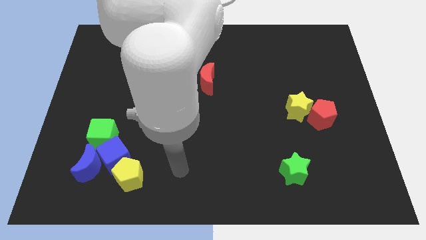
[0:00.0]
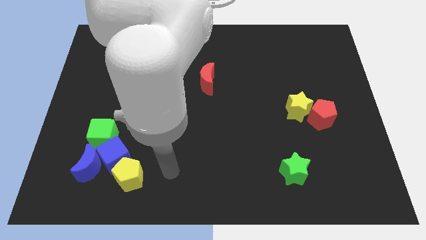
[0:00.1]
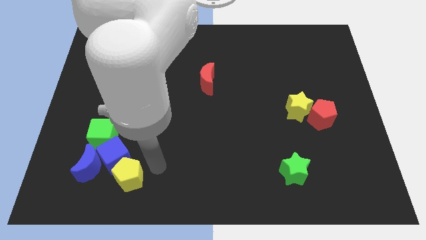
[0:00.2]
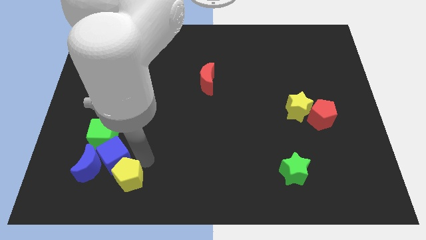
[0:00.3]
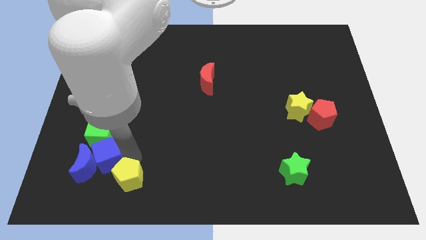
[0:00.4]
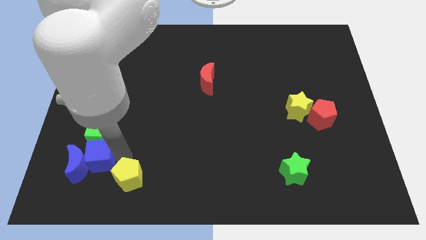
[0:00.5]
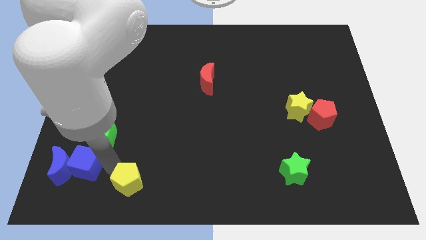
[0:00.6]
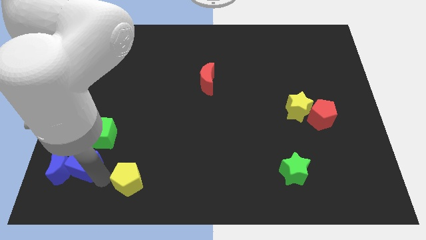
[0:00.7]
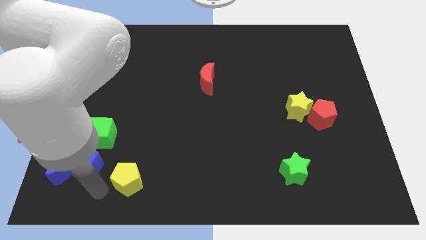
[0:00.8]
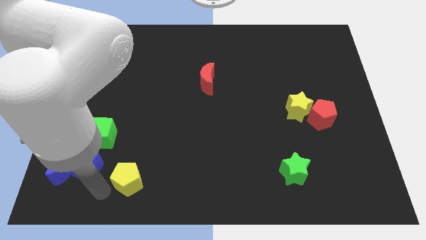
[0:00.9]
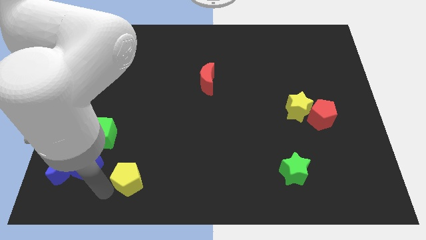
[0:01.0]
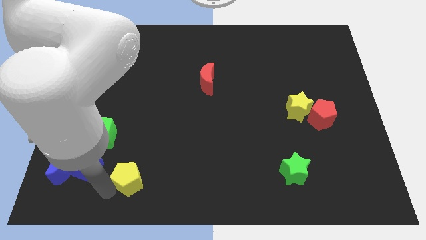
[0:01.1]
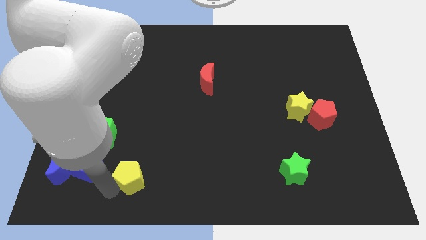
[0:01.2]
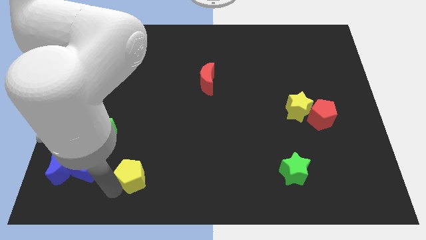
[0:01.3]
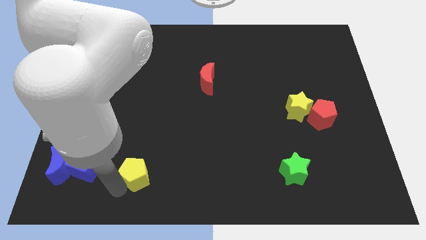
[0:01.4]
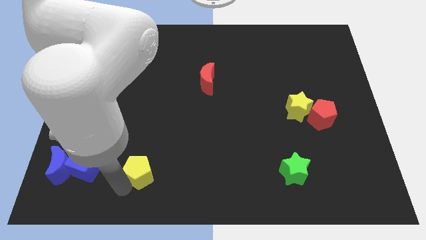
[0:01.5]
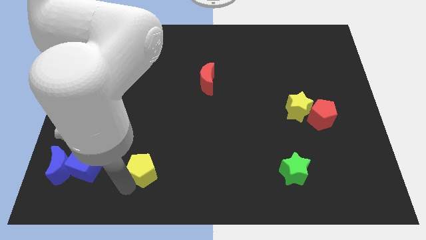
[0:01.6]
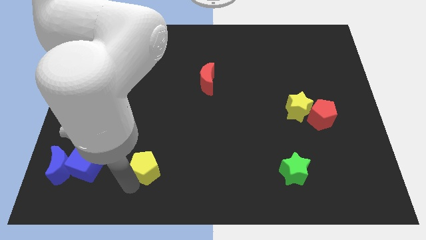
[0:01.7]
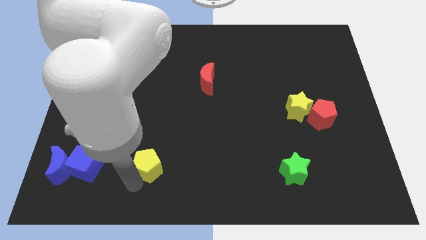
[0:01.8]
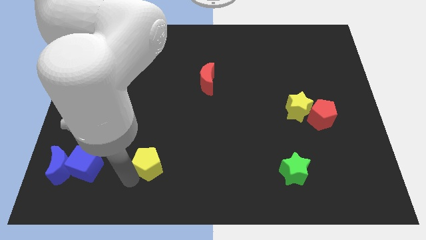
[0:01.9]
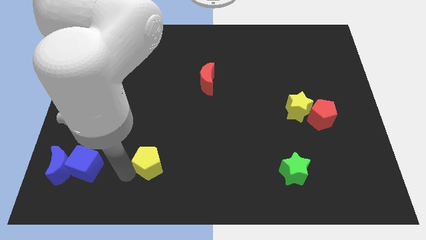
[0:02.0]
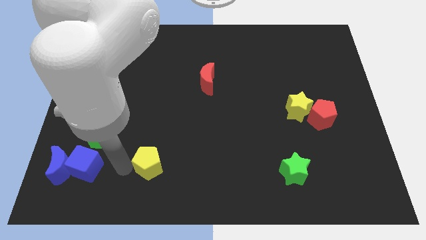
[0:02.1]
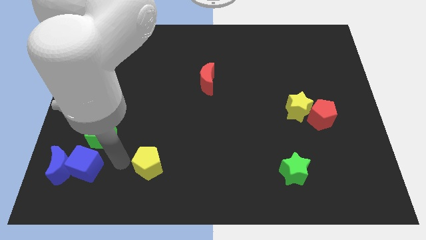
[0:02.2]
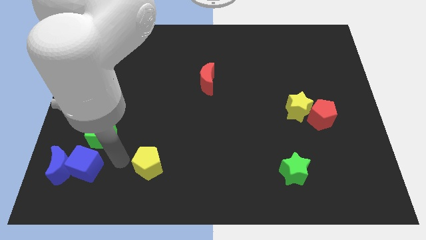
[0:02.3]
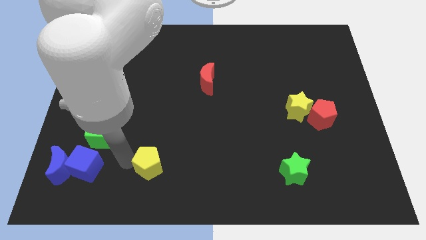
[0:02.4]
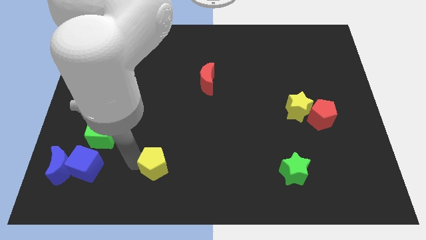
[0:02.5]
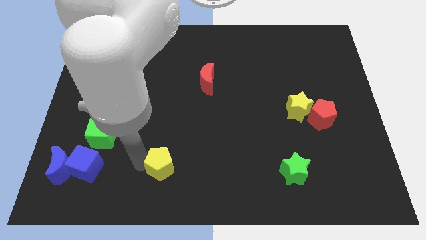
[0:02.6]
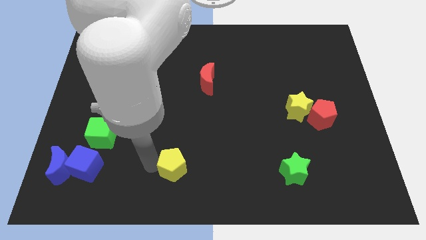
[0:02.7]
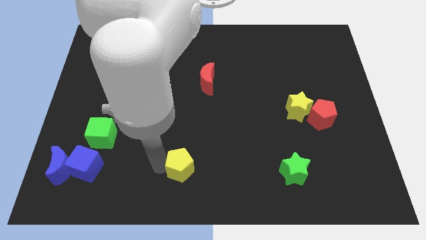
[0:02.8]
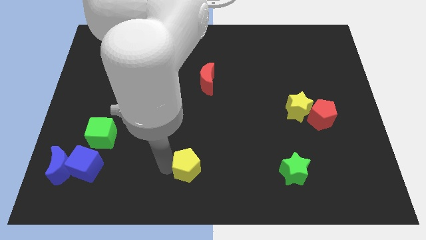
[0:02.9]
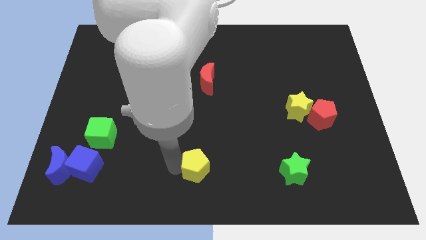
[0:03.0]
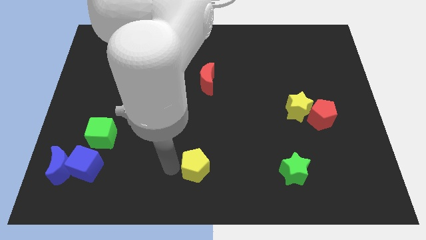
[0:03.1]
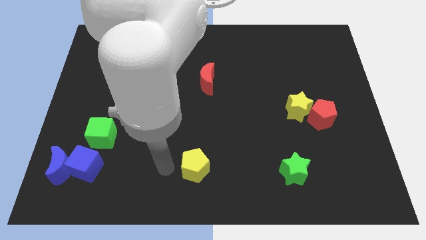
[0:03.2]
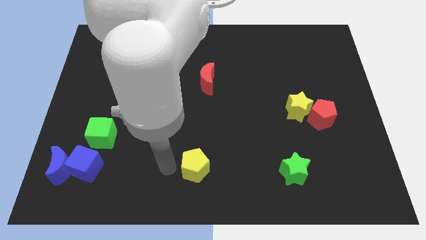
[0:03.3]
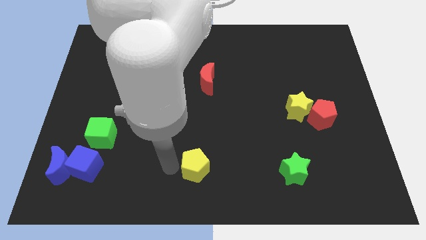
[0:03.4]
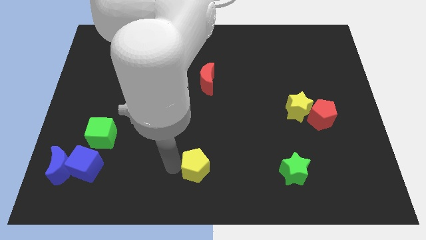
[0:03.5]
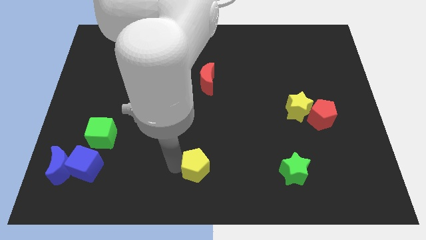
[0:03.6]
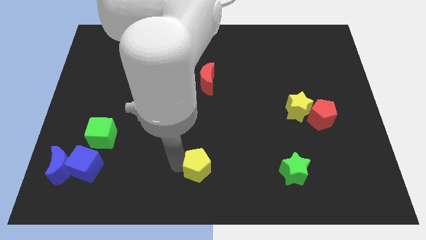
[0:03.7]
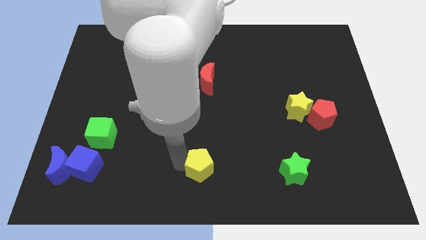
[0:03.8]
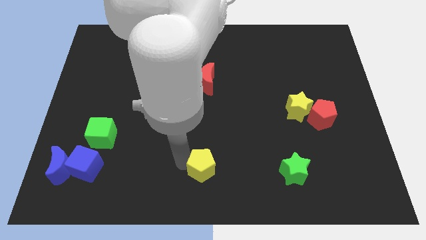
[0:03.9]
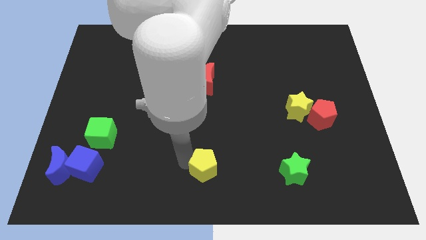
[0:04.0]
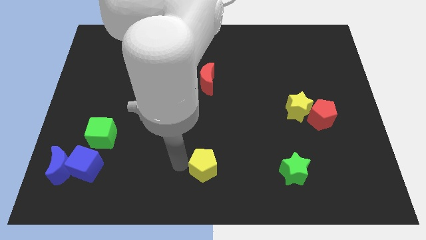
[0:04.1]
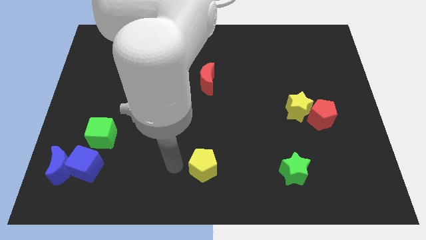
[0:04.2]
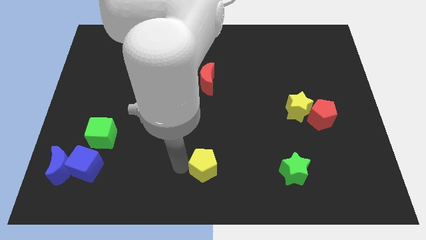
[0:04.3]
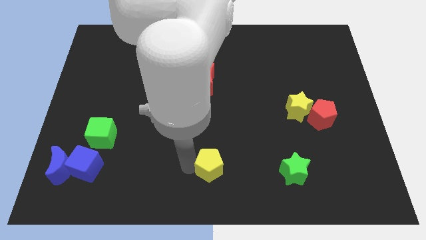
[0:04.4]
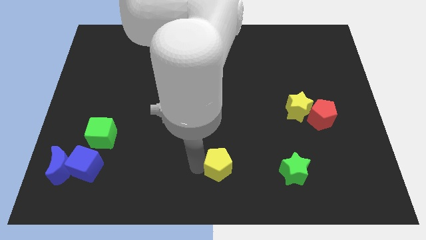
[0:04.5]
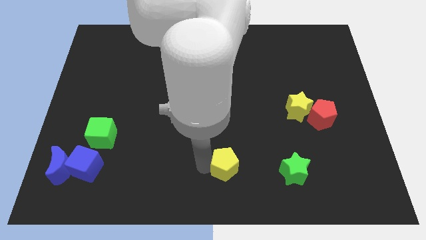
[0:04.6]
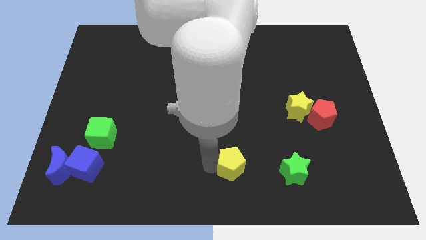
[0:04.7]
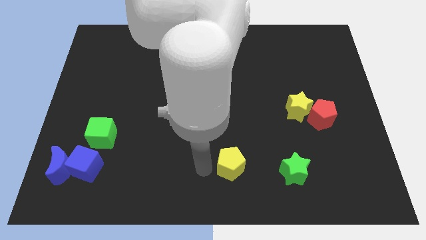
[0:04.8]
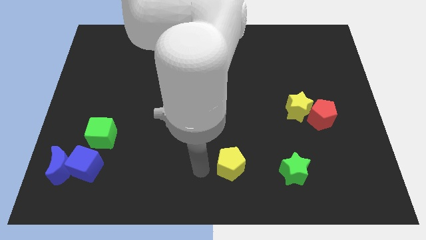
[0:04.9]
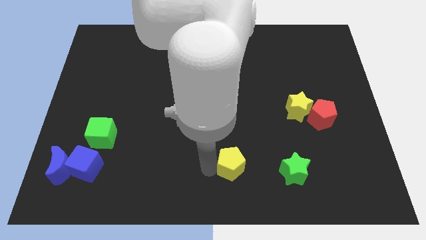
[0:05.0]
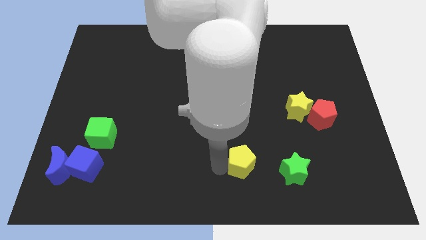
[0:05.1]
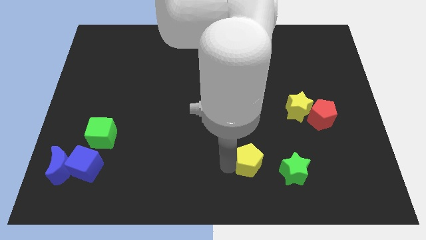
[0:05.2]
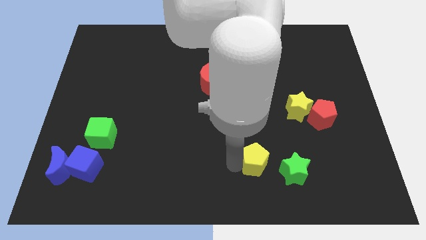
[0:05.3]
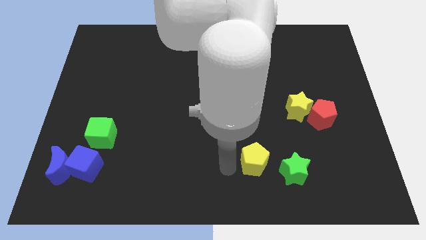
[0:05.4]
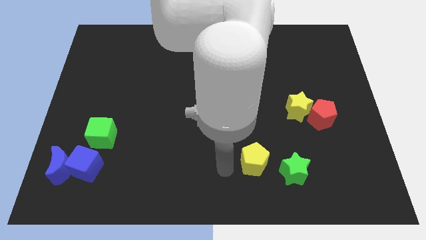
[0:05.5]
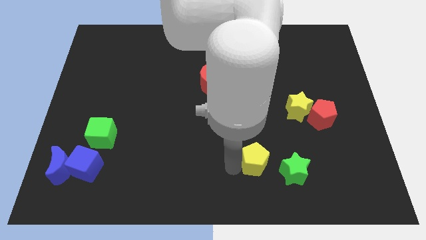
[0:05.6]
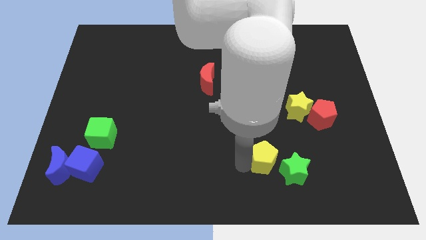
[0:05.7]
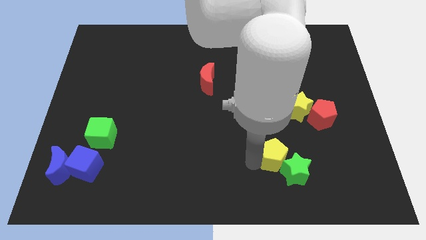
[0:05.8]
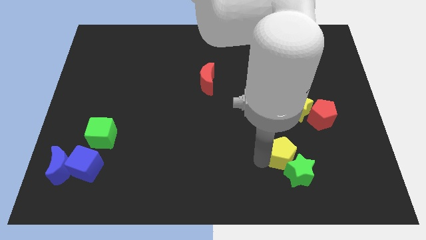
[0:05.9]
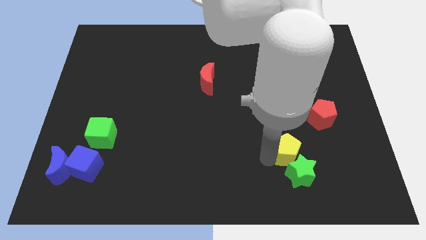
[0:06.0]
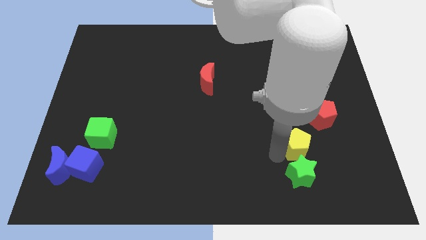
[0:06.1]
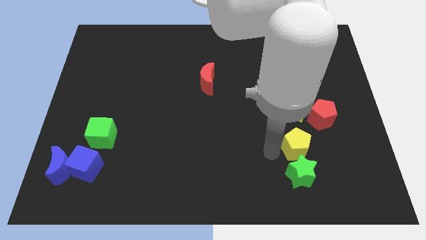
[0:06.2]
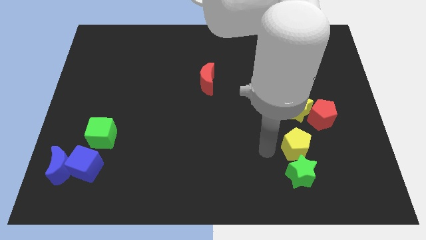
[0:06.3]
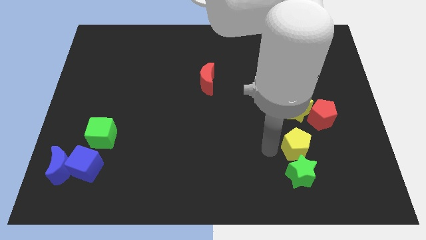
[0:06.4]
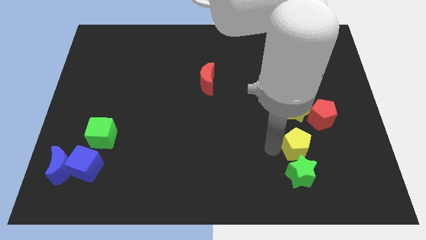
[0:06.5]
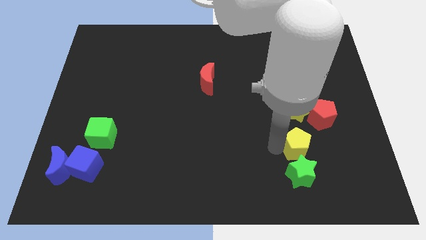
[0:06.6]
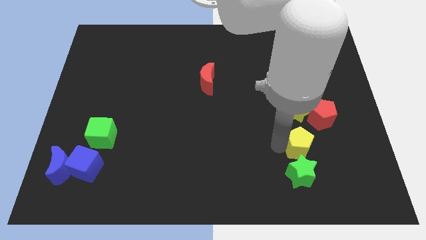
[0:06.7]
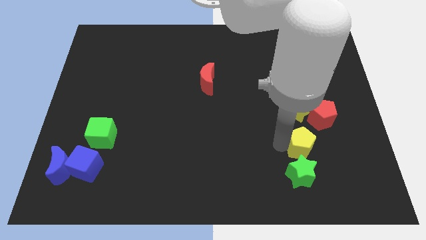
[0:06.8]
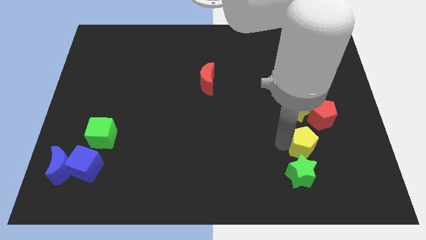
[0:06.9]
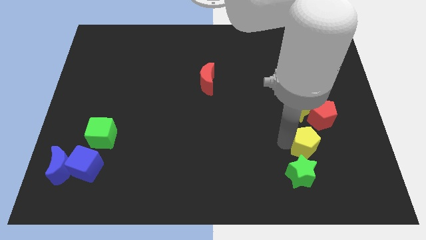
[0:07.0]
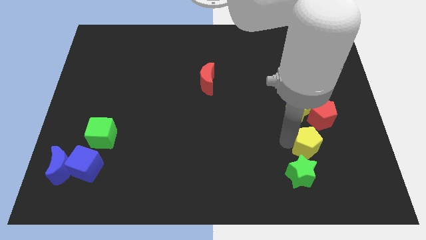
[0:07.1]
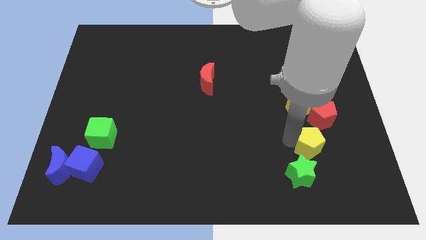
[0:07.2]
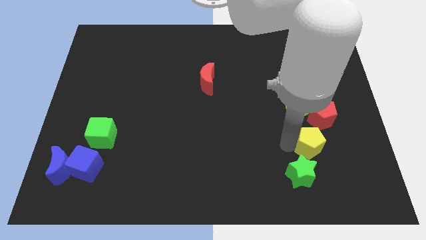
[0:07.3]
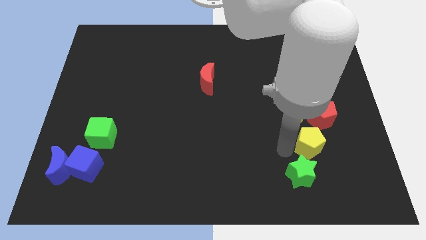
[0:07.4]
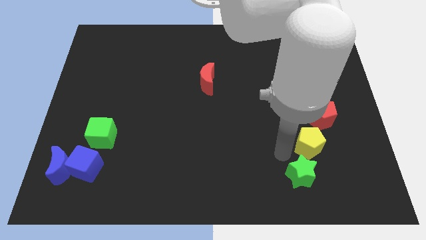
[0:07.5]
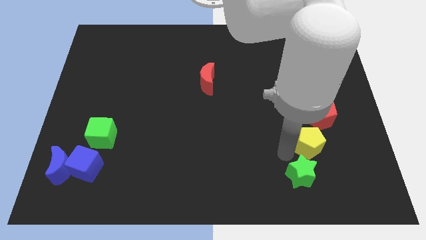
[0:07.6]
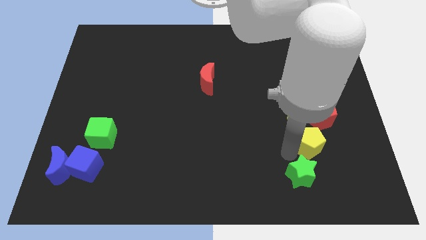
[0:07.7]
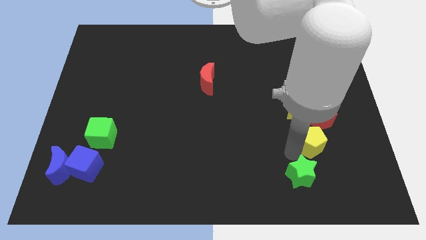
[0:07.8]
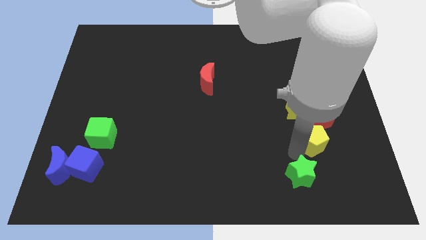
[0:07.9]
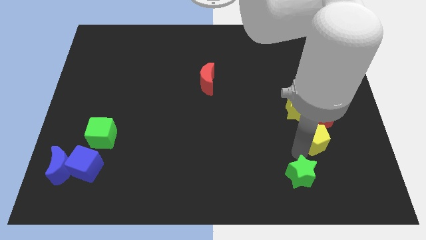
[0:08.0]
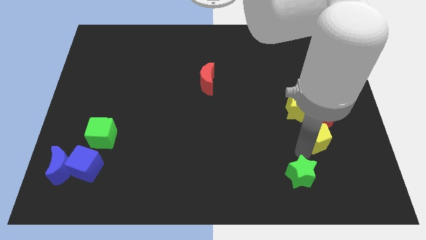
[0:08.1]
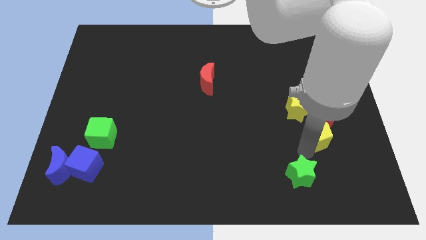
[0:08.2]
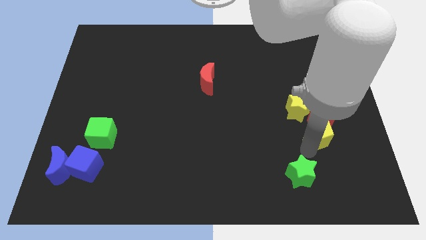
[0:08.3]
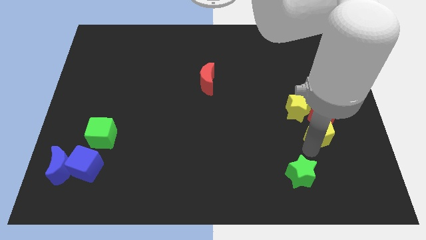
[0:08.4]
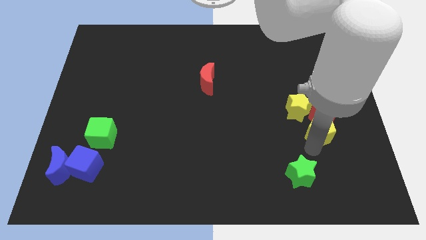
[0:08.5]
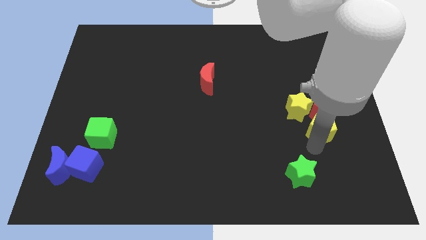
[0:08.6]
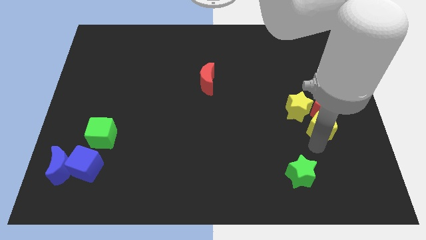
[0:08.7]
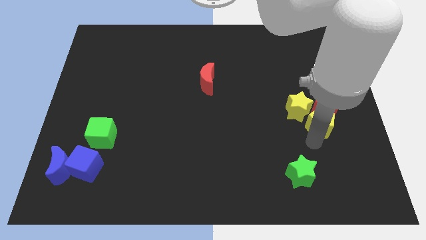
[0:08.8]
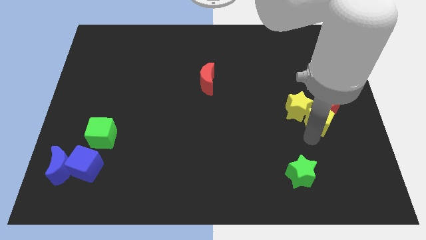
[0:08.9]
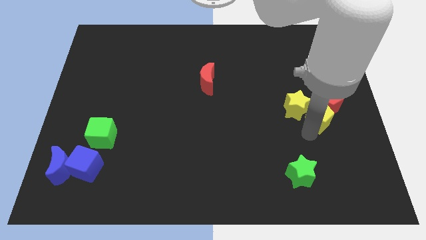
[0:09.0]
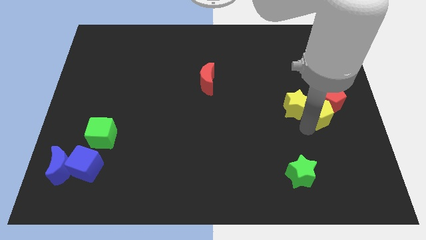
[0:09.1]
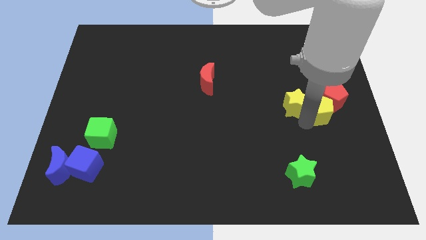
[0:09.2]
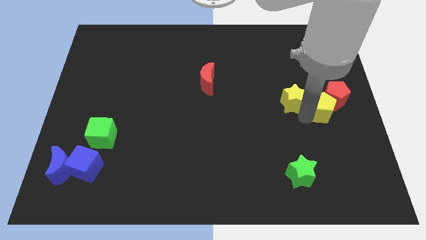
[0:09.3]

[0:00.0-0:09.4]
move the yellow pentagon to the center right
